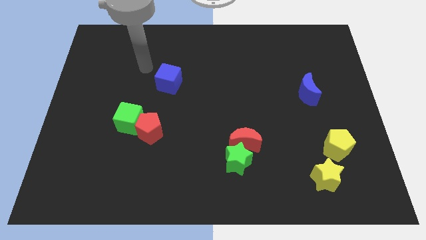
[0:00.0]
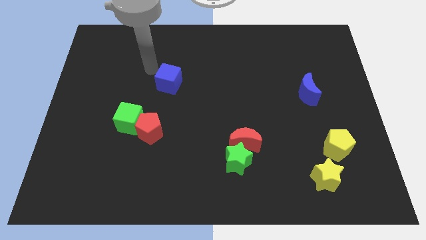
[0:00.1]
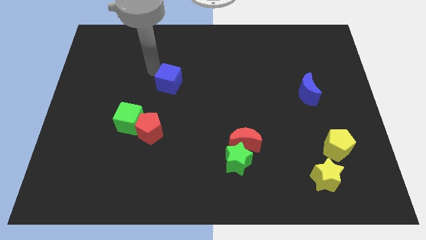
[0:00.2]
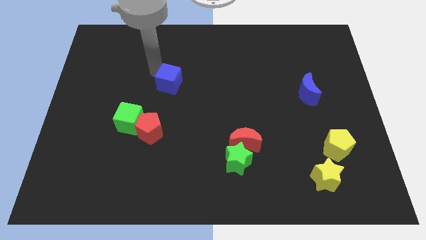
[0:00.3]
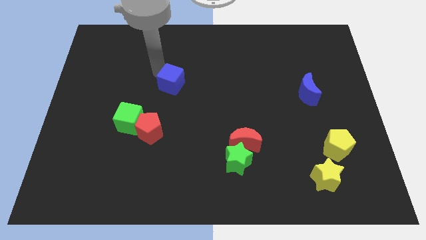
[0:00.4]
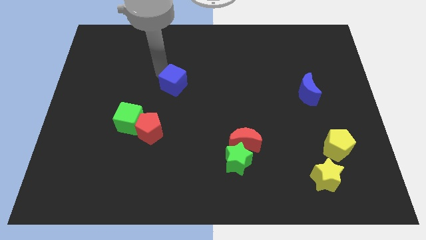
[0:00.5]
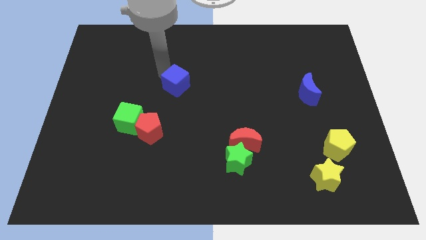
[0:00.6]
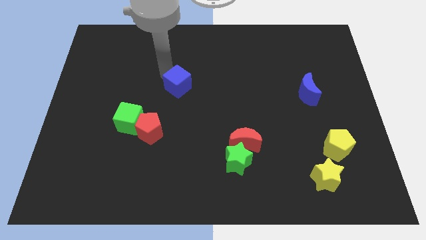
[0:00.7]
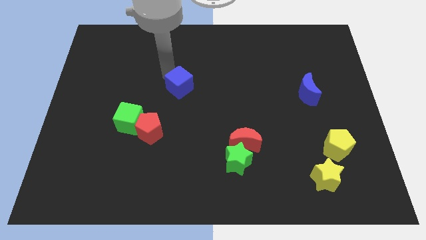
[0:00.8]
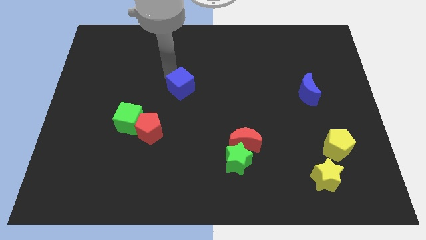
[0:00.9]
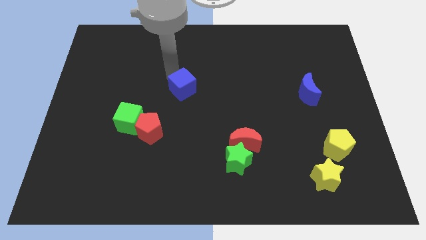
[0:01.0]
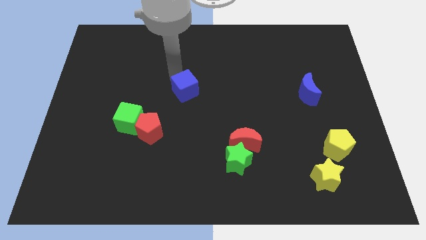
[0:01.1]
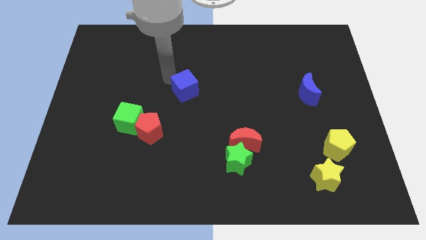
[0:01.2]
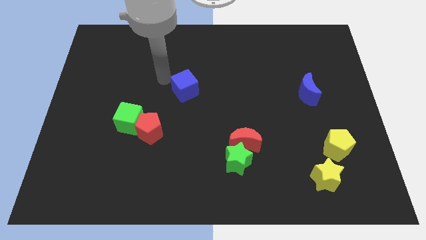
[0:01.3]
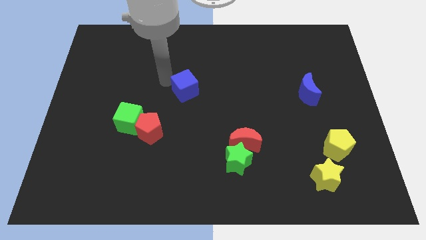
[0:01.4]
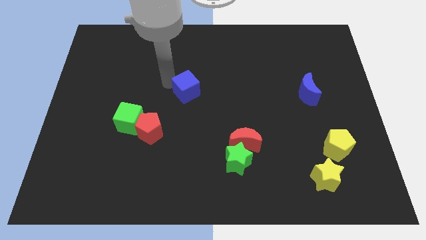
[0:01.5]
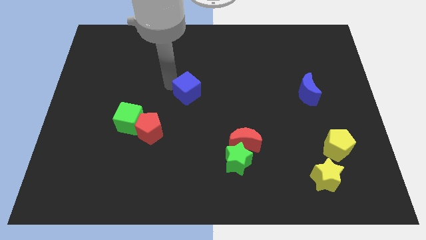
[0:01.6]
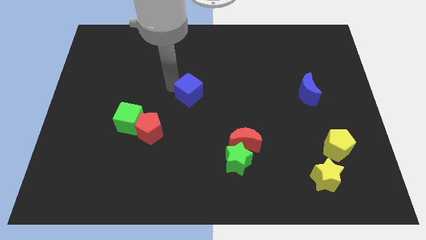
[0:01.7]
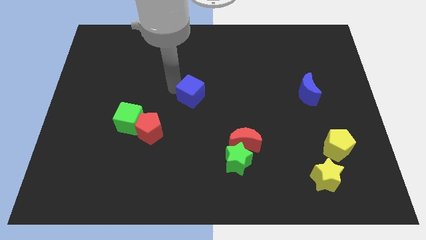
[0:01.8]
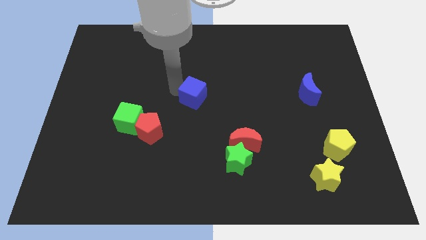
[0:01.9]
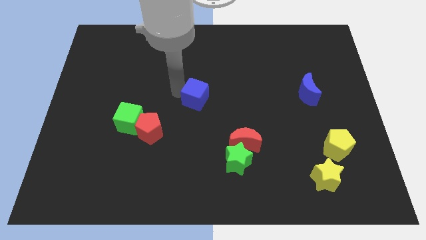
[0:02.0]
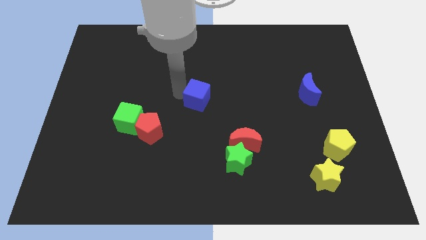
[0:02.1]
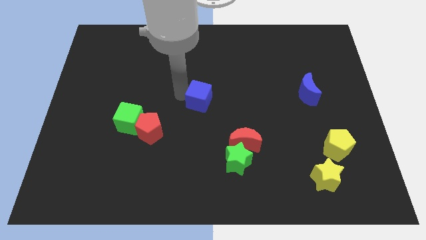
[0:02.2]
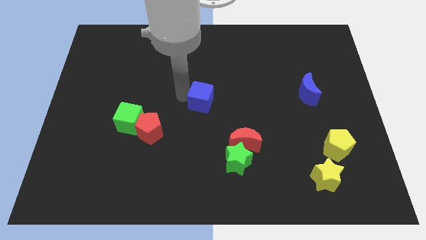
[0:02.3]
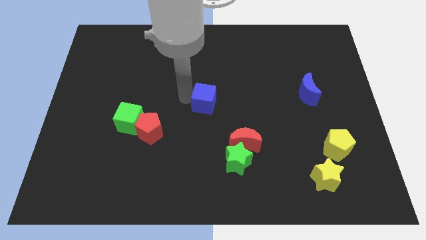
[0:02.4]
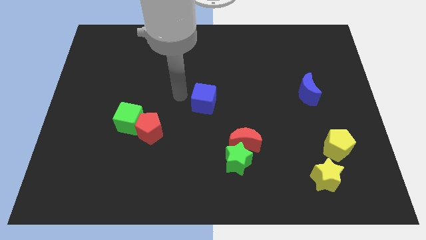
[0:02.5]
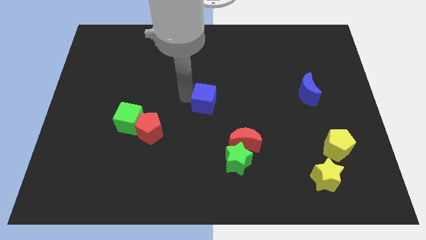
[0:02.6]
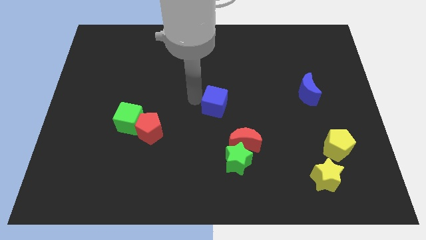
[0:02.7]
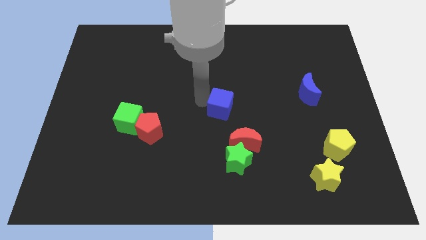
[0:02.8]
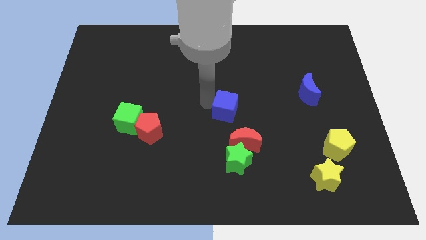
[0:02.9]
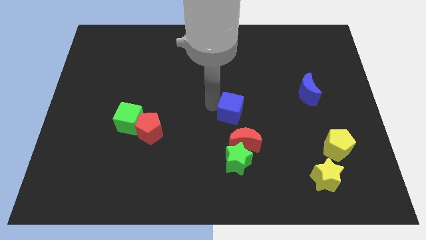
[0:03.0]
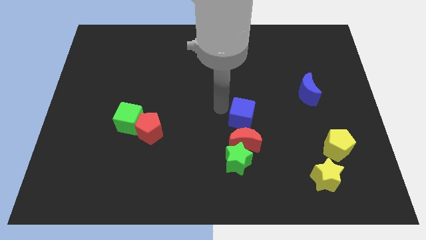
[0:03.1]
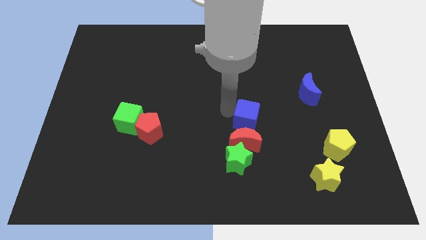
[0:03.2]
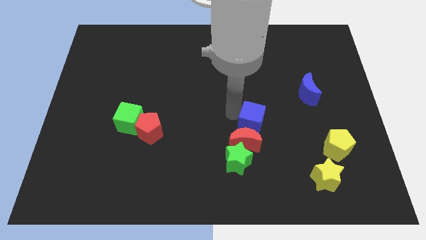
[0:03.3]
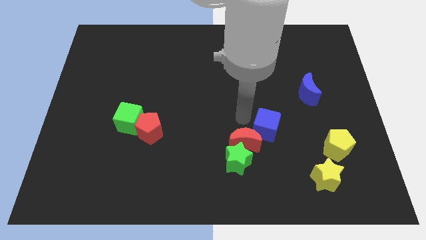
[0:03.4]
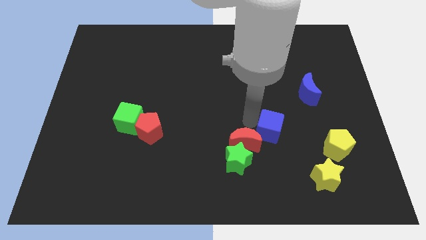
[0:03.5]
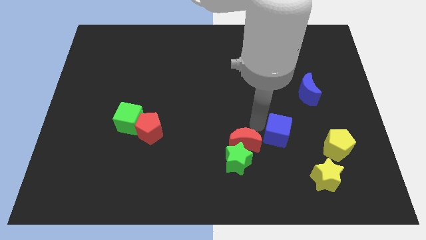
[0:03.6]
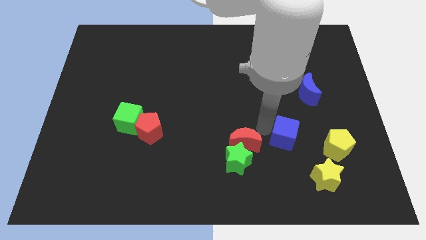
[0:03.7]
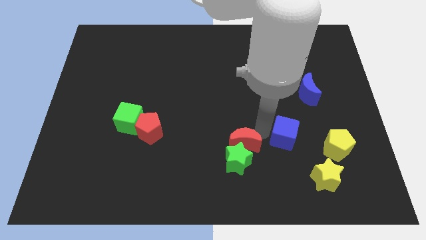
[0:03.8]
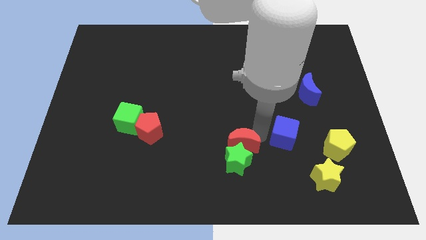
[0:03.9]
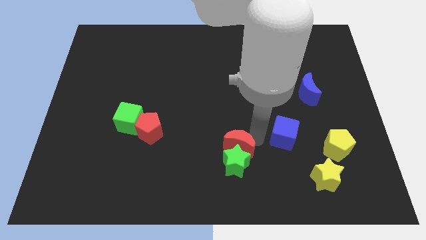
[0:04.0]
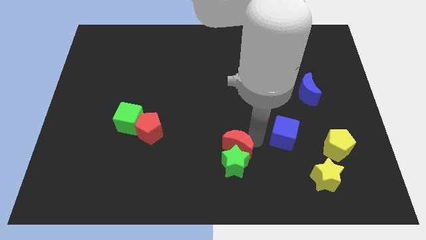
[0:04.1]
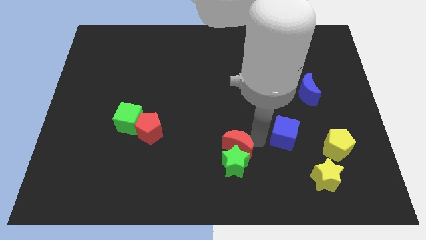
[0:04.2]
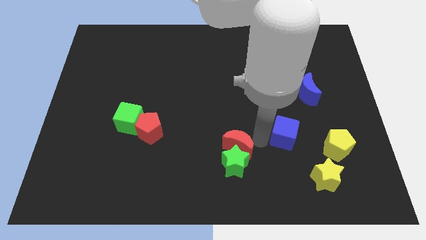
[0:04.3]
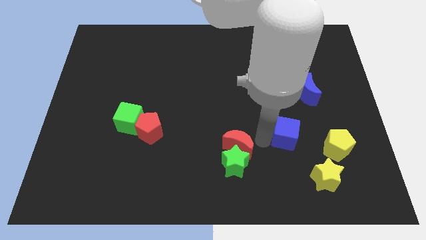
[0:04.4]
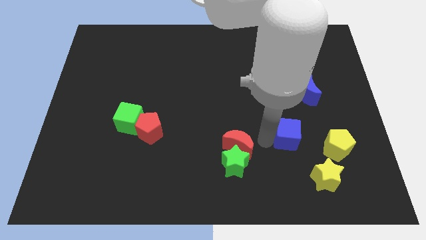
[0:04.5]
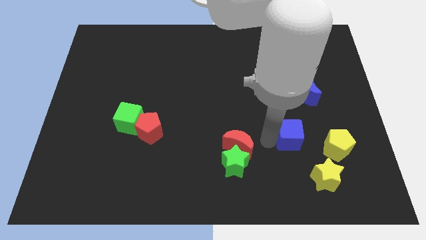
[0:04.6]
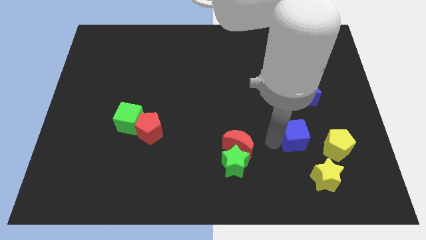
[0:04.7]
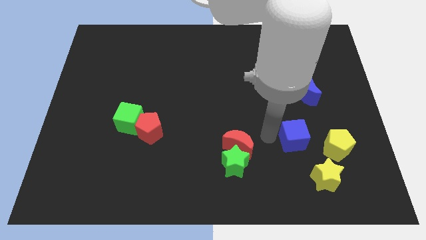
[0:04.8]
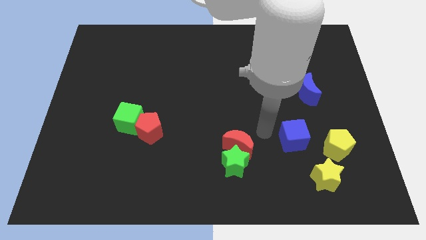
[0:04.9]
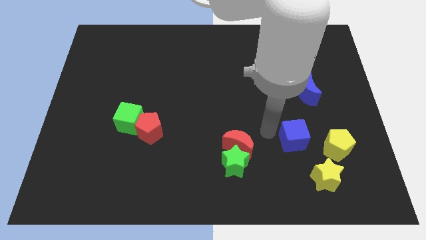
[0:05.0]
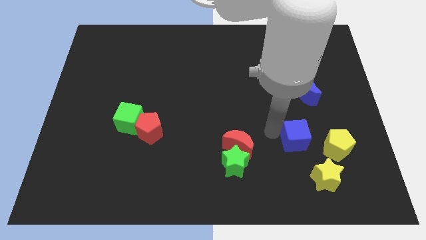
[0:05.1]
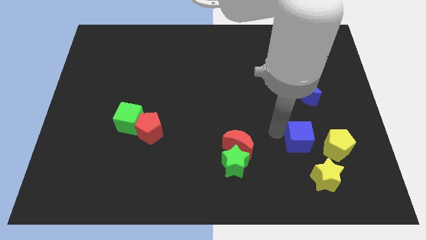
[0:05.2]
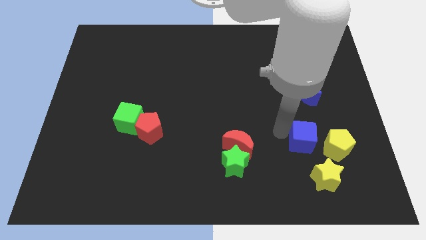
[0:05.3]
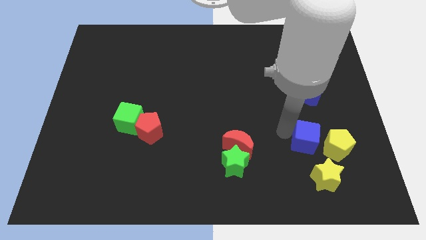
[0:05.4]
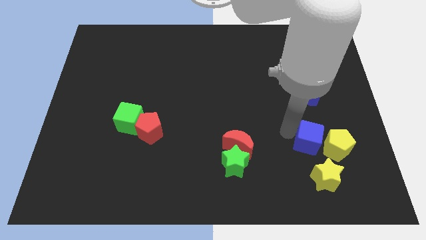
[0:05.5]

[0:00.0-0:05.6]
put the blue cube towards the yellow pentagon

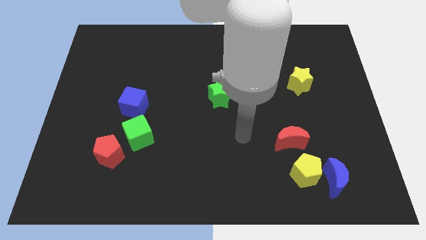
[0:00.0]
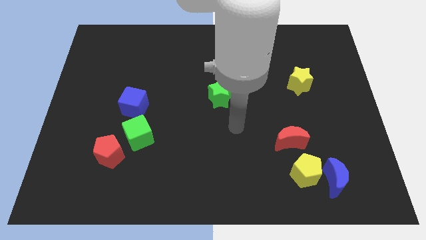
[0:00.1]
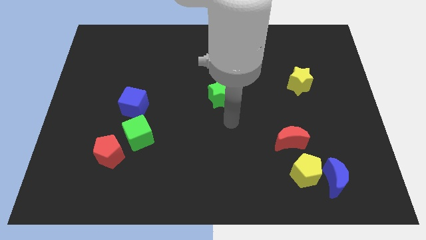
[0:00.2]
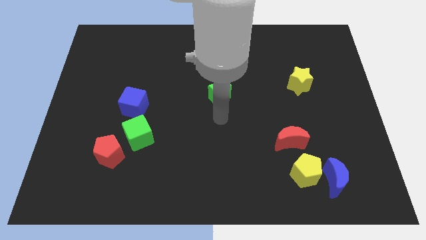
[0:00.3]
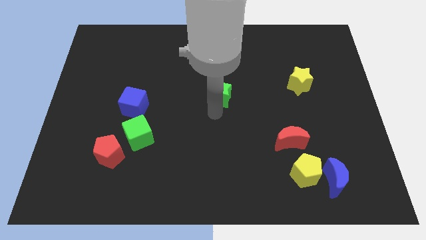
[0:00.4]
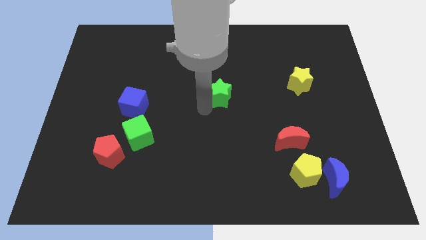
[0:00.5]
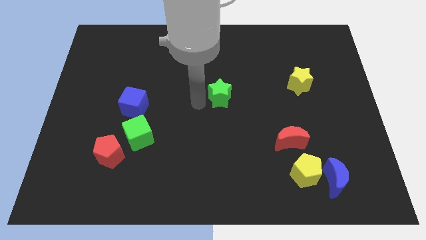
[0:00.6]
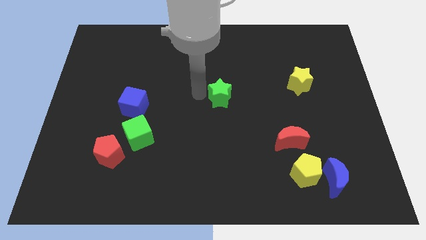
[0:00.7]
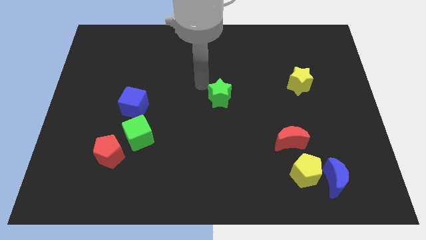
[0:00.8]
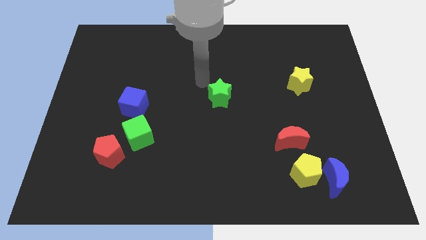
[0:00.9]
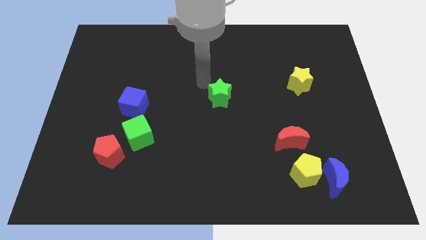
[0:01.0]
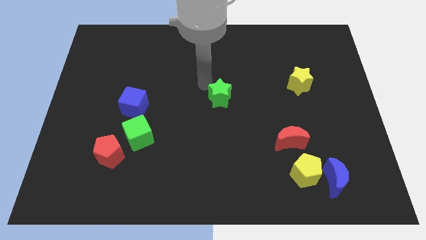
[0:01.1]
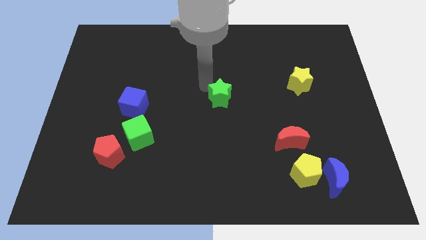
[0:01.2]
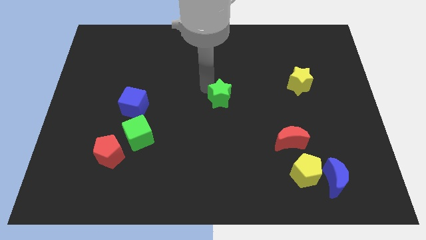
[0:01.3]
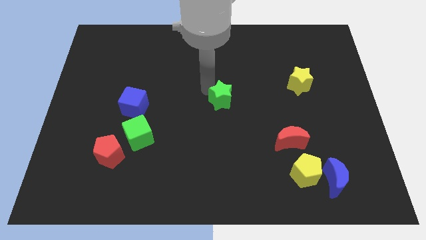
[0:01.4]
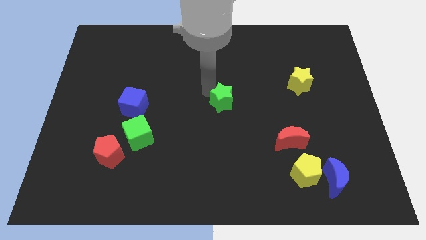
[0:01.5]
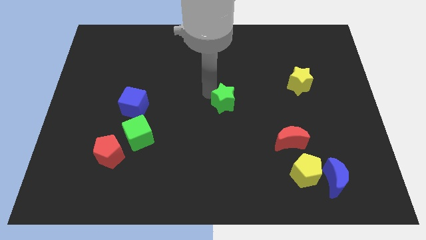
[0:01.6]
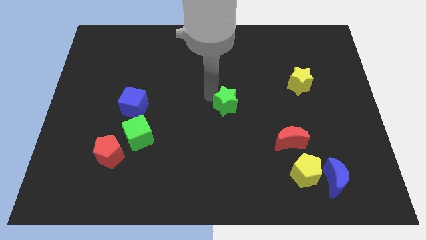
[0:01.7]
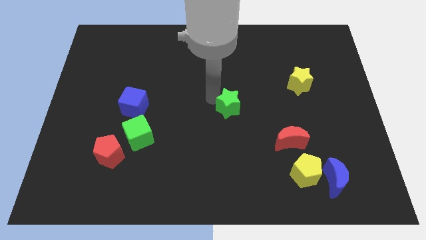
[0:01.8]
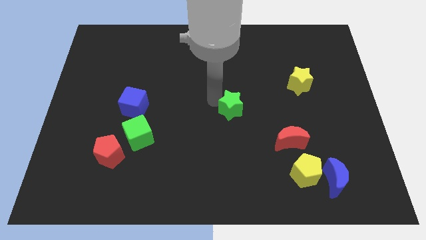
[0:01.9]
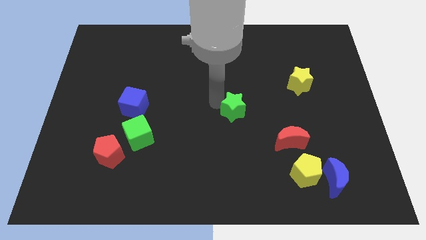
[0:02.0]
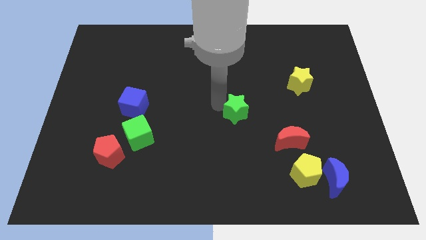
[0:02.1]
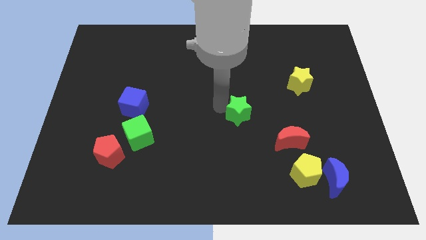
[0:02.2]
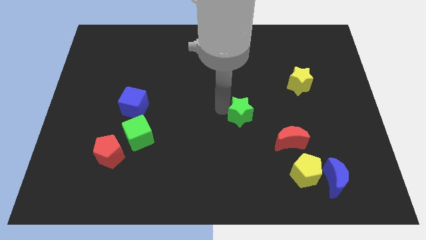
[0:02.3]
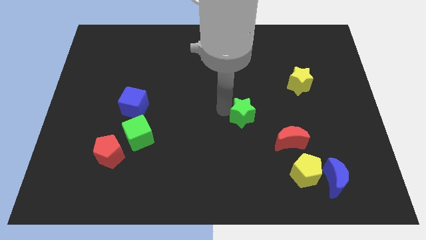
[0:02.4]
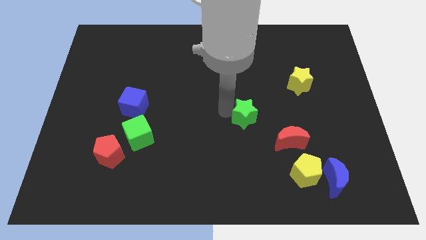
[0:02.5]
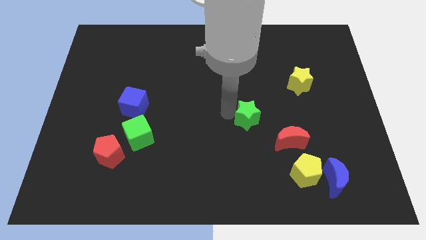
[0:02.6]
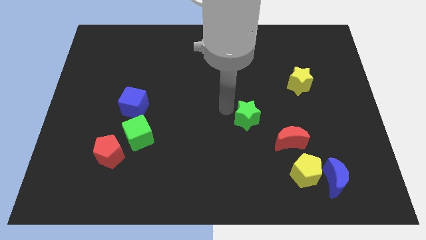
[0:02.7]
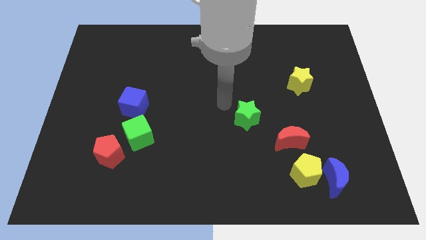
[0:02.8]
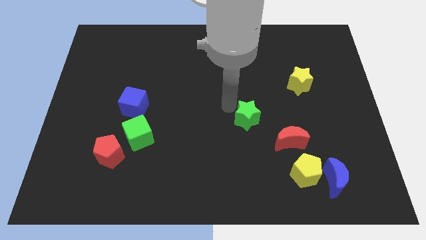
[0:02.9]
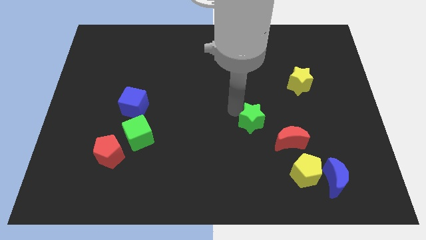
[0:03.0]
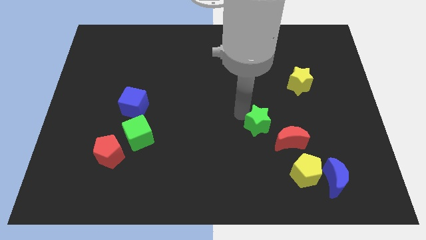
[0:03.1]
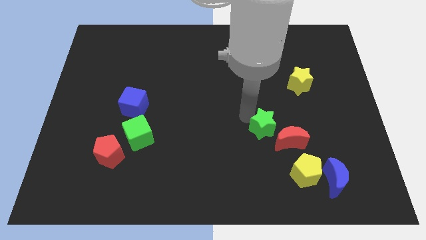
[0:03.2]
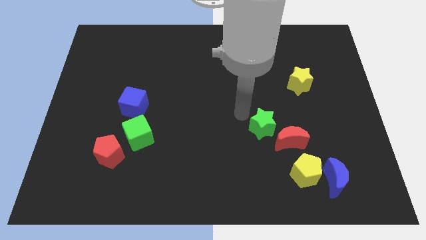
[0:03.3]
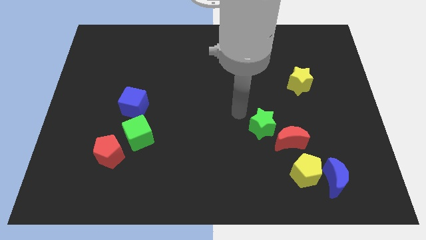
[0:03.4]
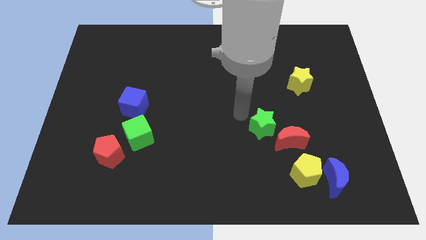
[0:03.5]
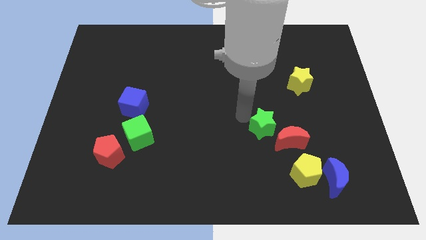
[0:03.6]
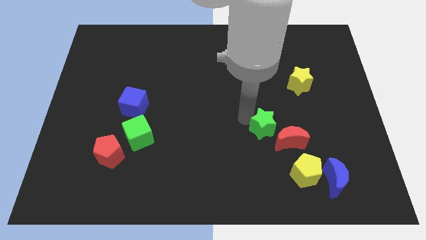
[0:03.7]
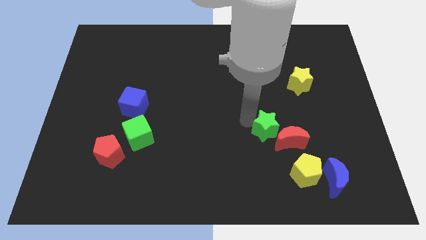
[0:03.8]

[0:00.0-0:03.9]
push the green star towards the red moon
